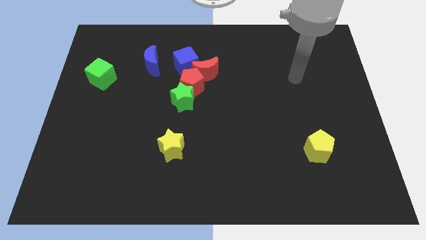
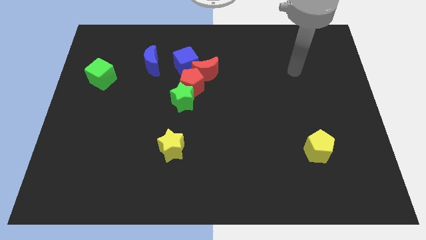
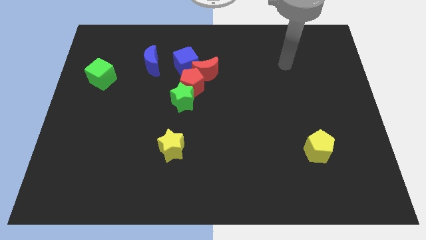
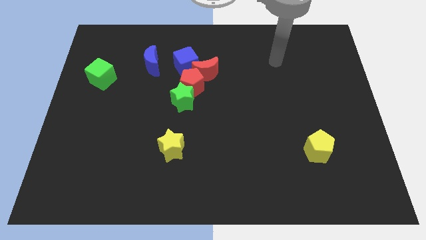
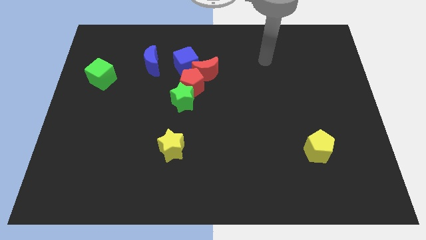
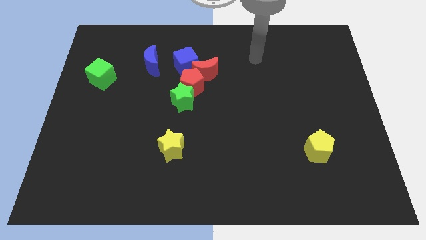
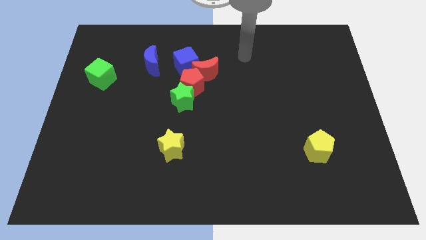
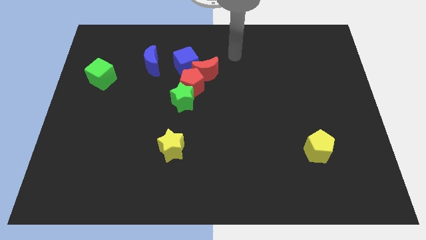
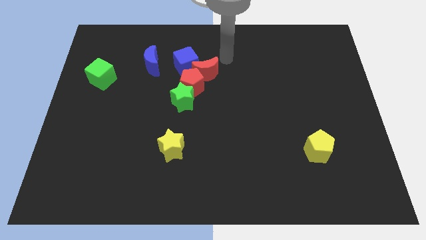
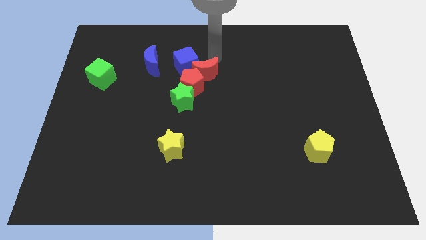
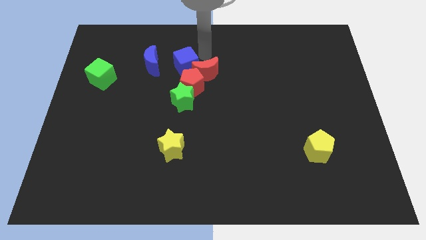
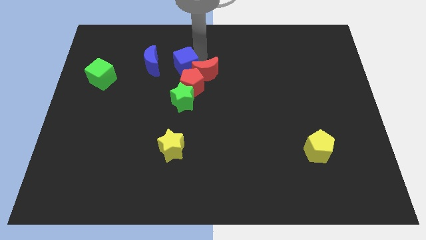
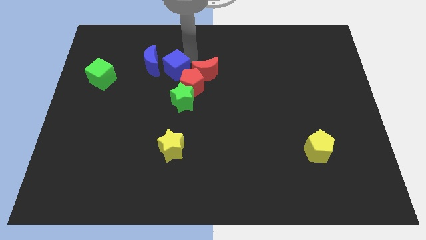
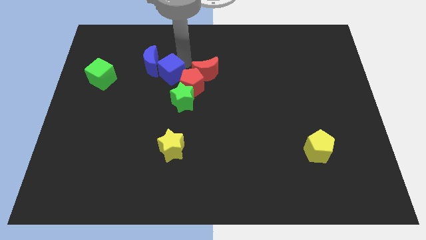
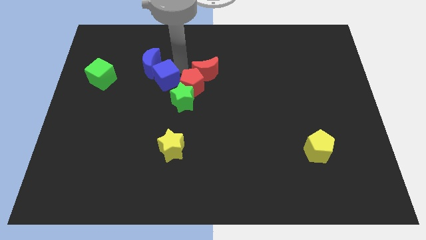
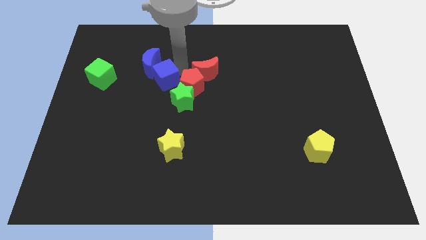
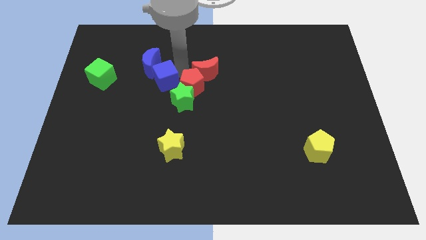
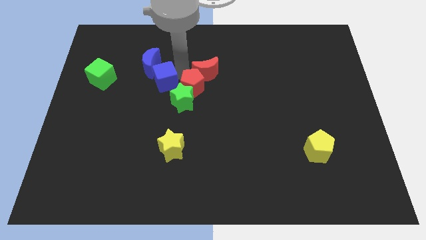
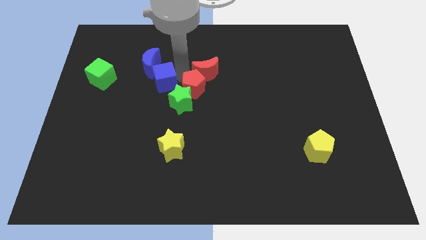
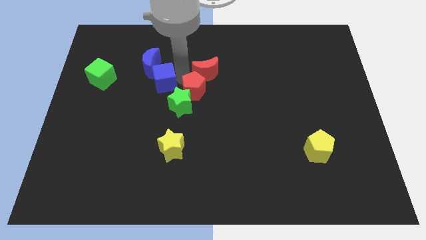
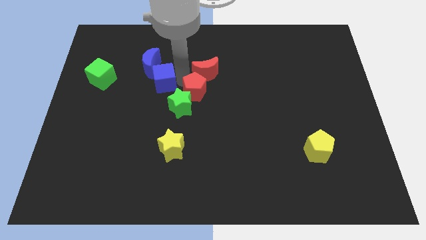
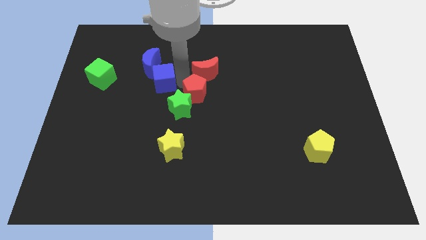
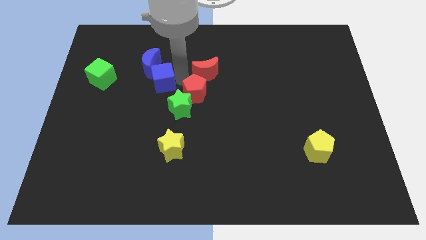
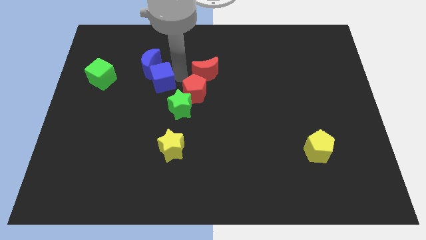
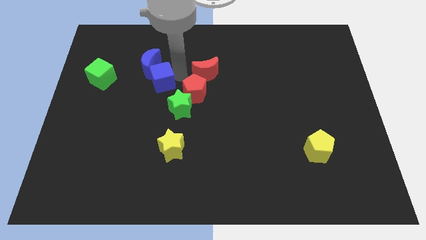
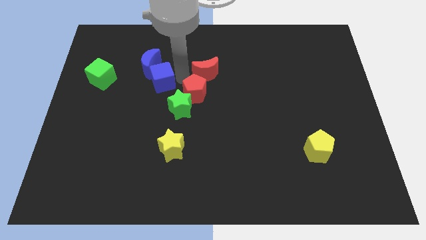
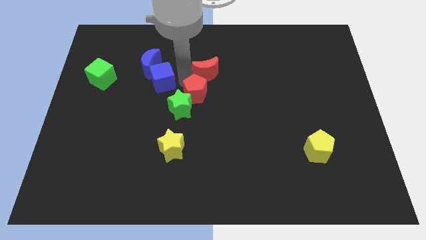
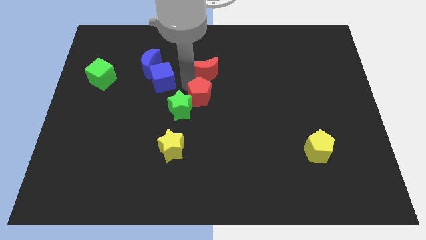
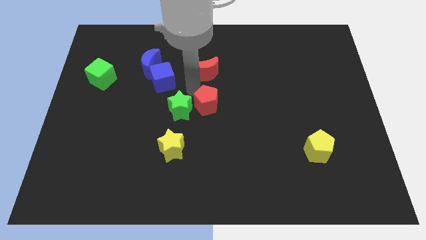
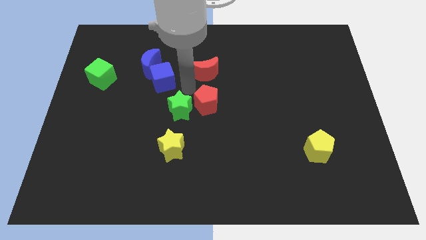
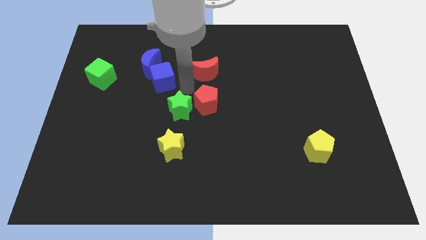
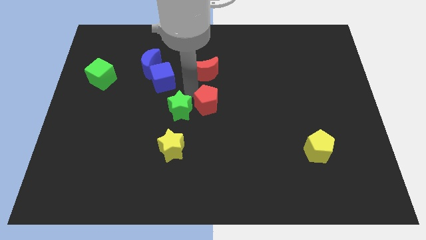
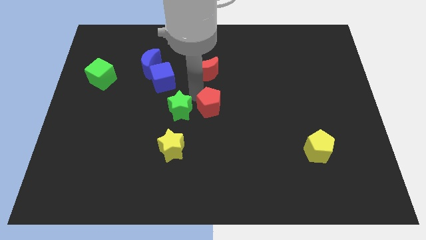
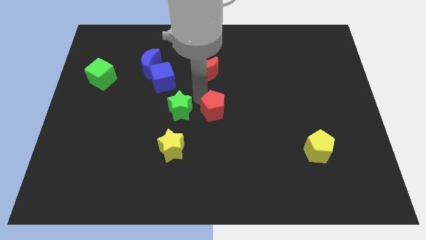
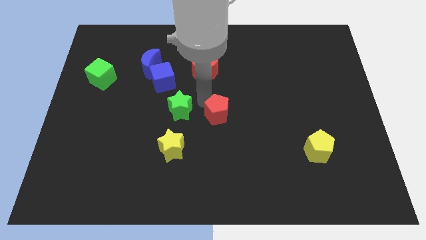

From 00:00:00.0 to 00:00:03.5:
pull the red pentagon apart from the group

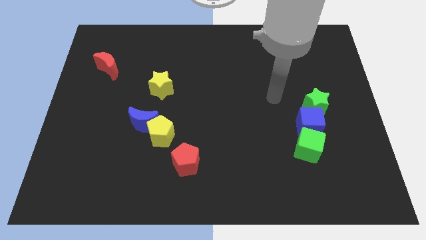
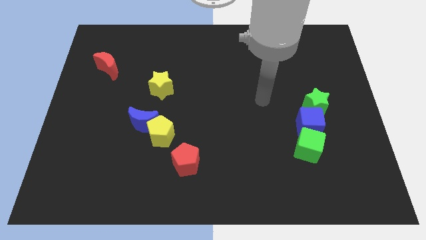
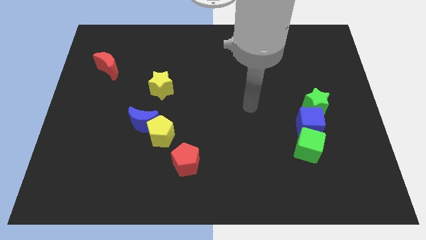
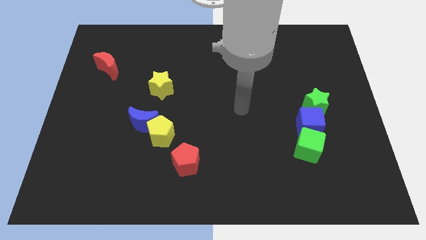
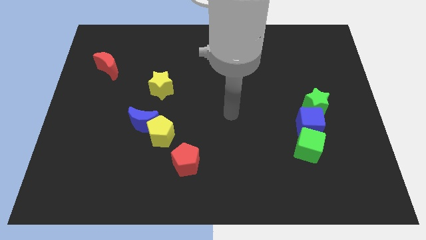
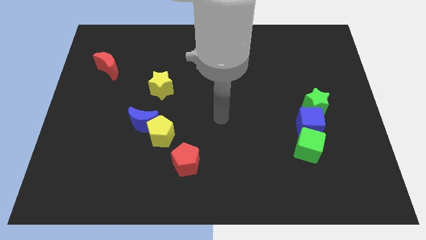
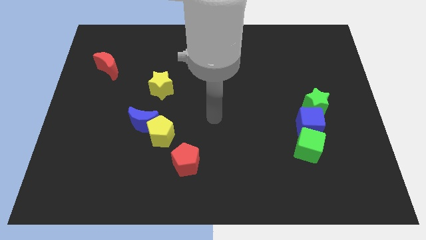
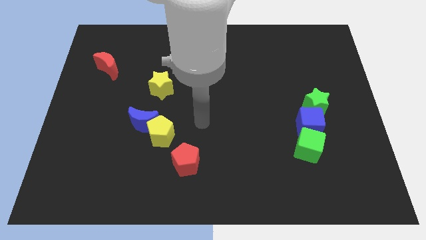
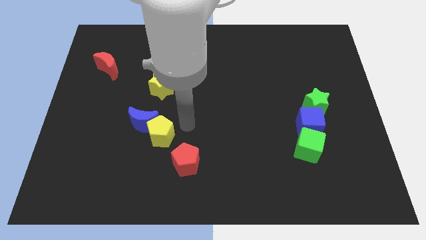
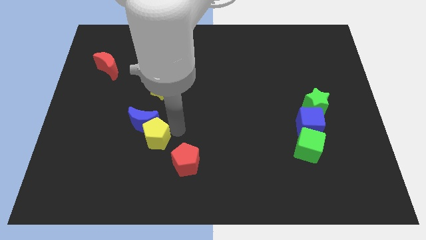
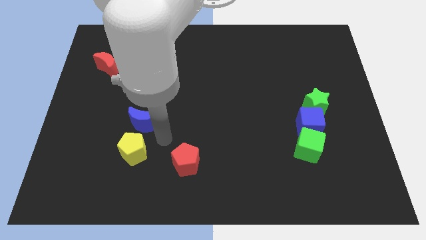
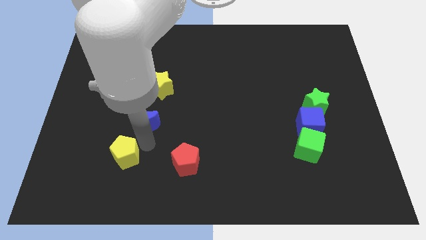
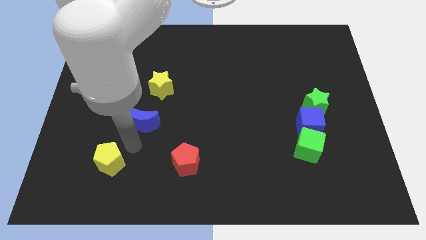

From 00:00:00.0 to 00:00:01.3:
separate the blue moon from the yellow pentagon

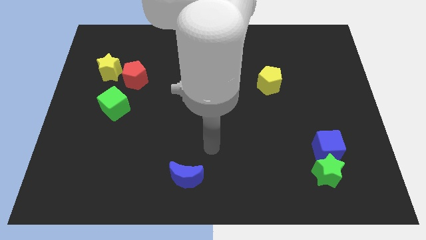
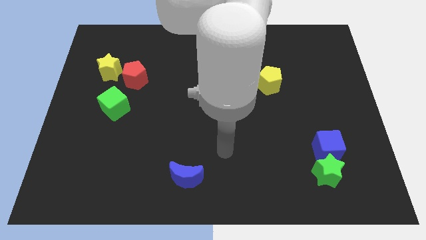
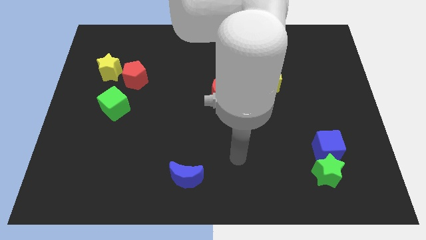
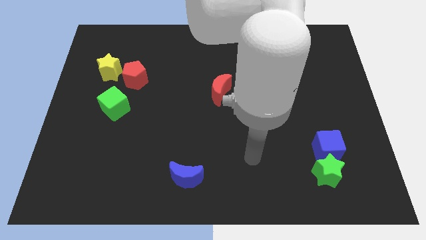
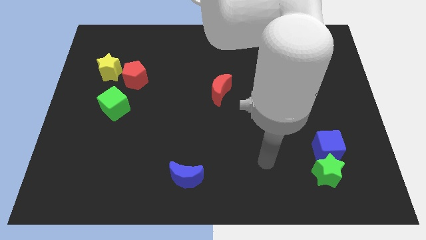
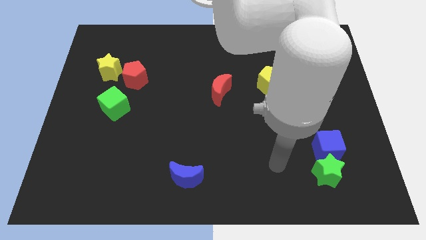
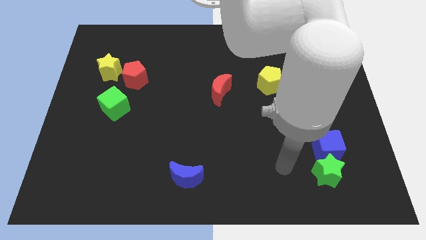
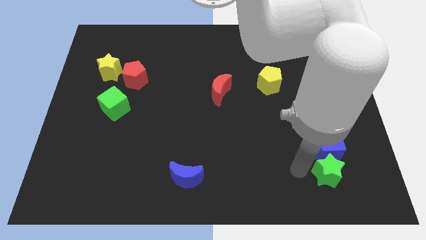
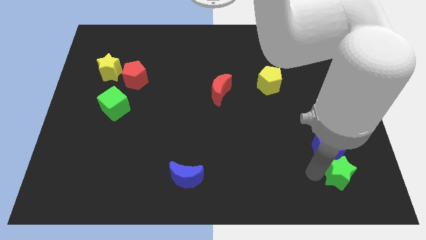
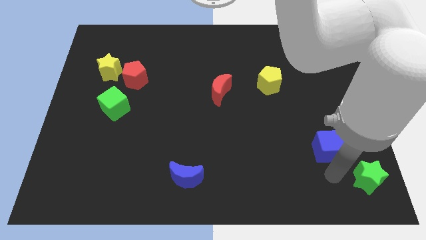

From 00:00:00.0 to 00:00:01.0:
pull the blue cube apart from the green star

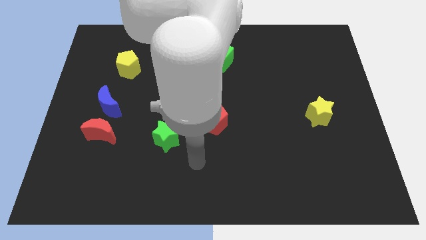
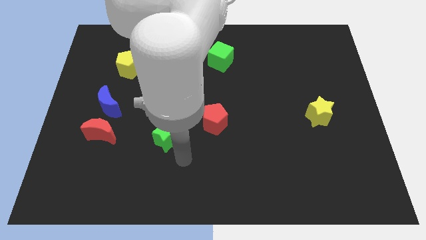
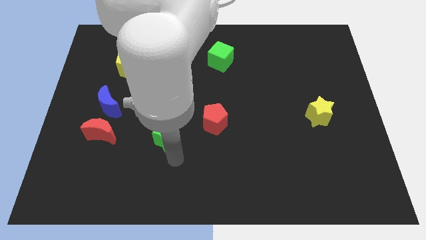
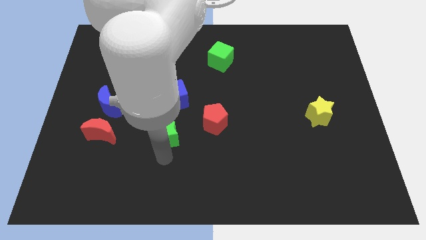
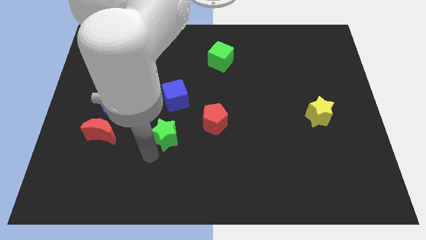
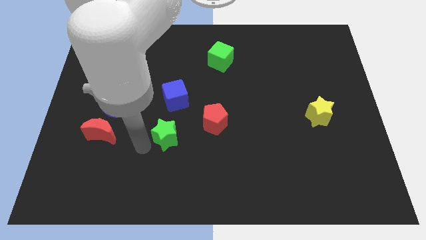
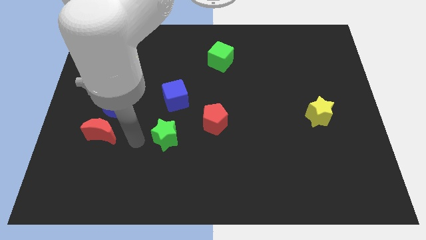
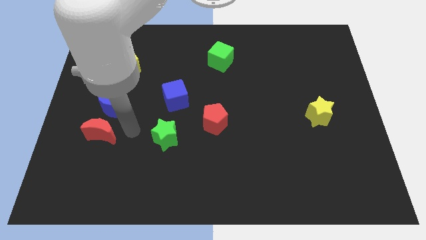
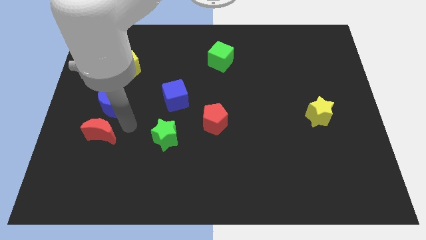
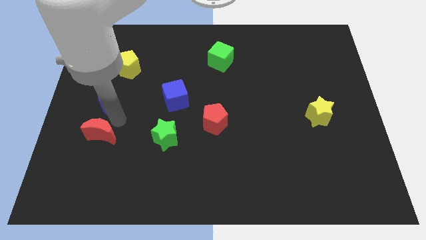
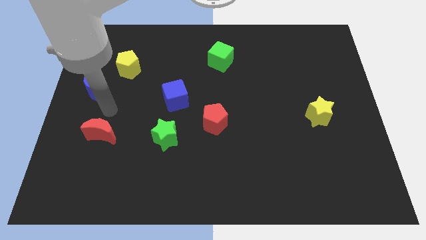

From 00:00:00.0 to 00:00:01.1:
separate the red moon from the blue moon

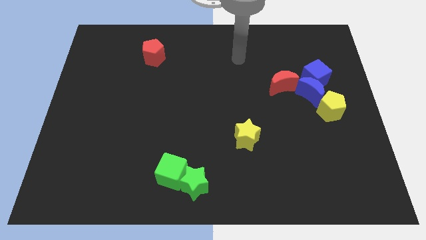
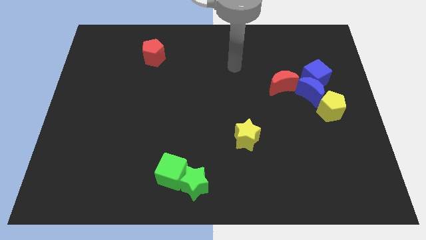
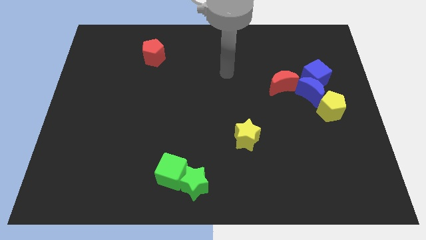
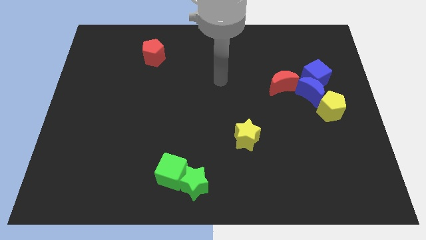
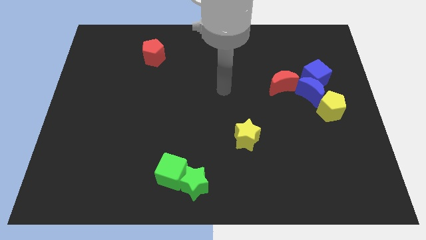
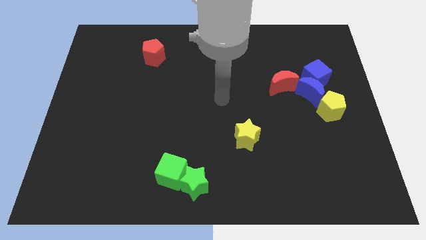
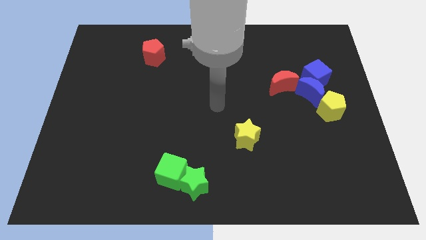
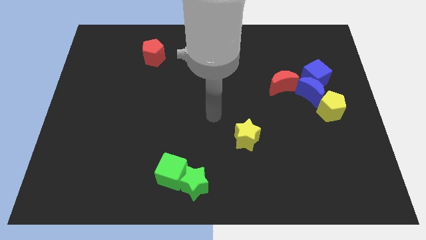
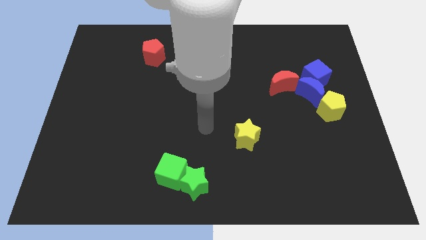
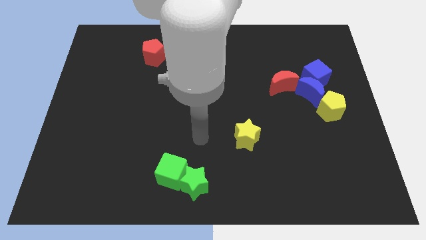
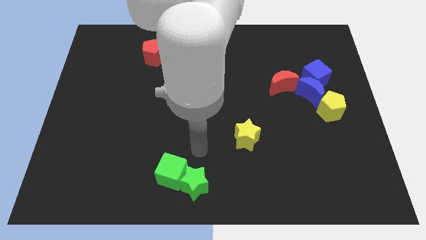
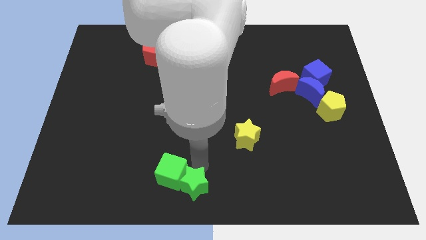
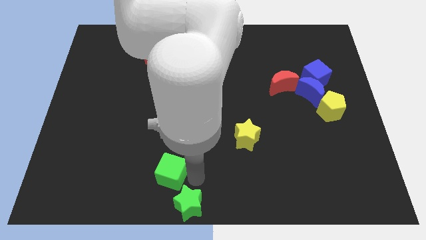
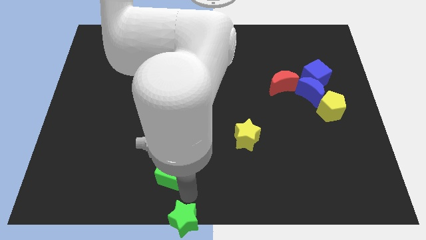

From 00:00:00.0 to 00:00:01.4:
move the green cube away from the green star

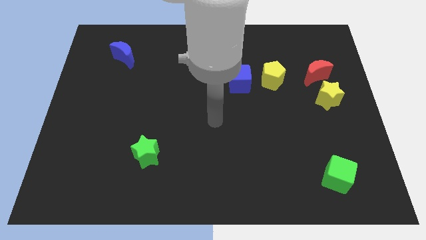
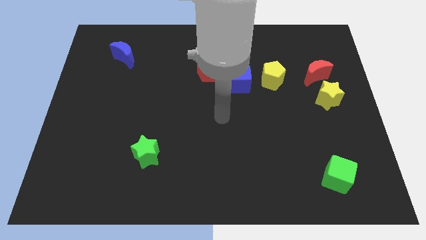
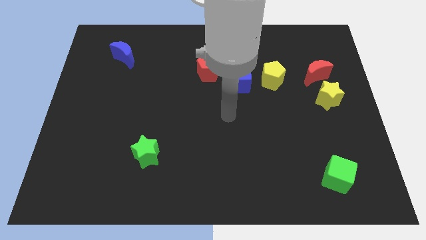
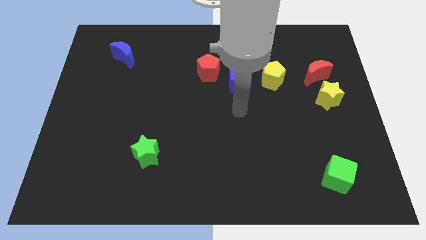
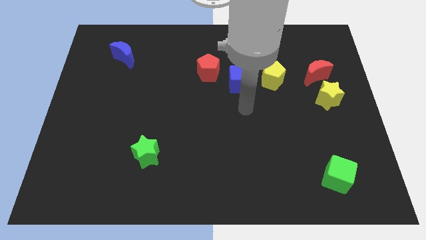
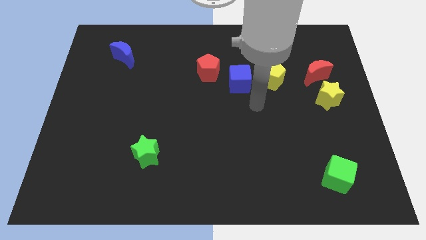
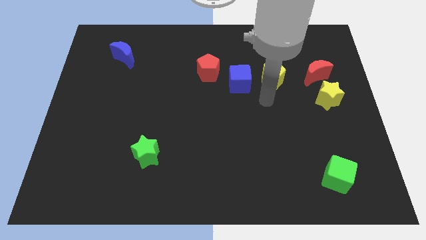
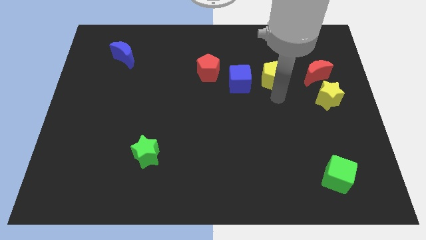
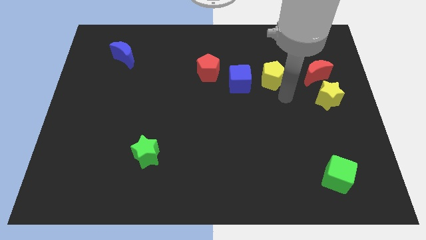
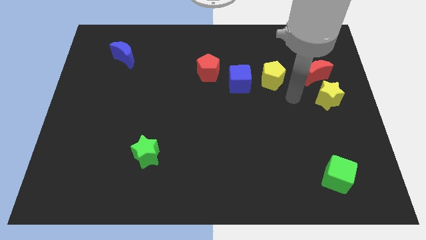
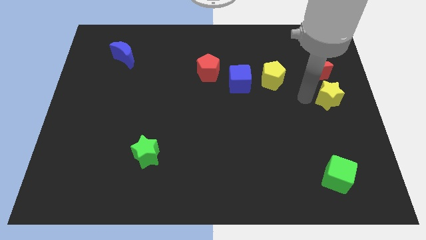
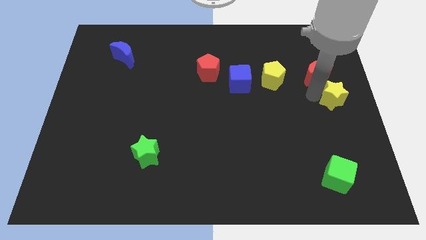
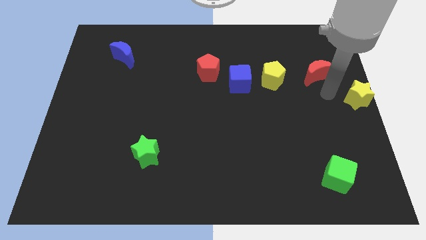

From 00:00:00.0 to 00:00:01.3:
pull the red moon apart from the yellow star
